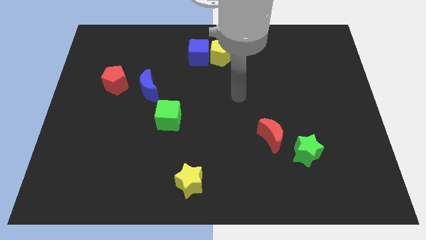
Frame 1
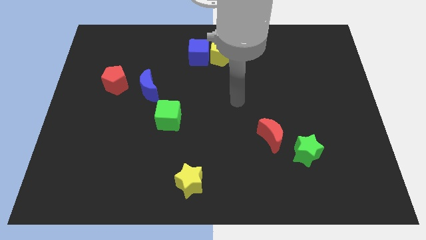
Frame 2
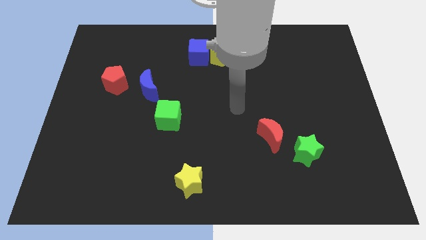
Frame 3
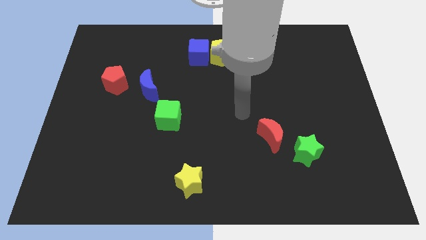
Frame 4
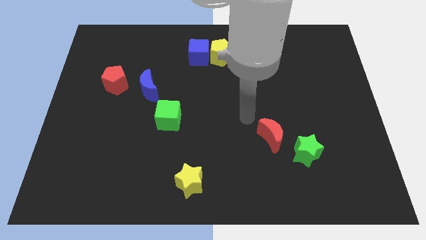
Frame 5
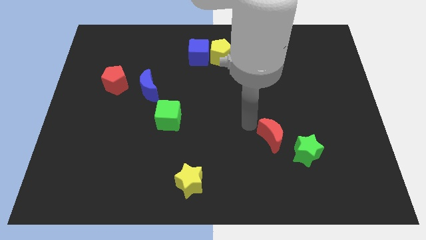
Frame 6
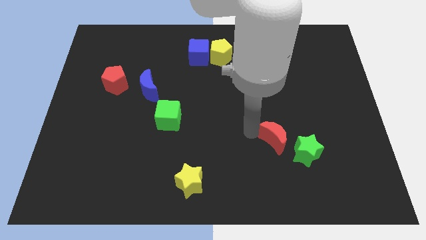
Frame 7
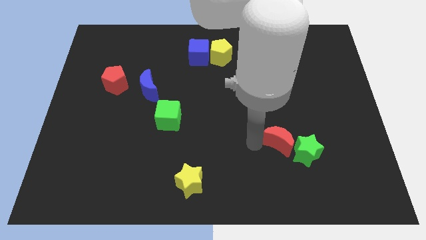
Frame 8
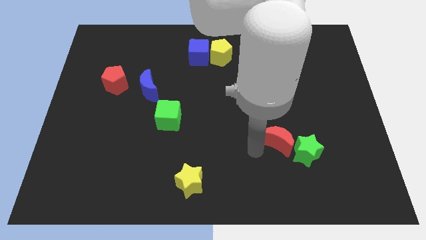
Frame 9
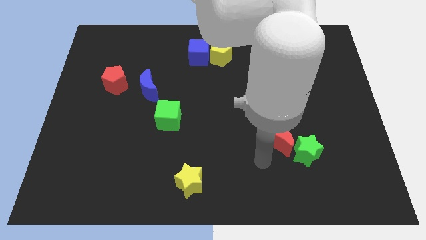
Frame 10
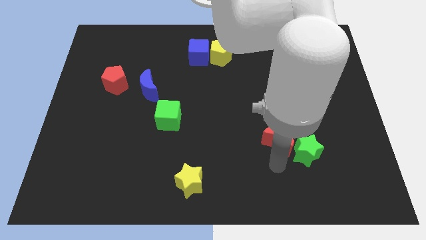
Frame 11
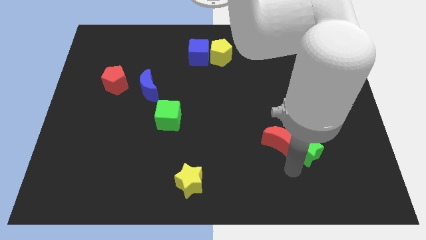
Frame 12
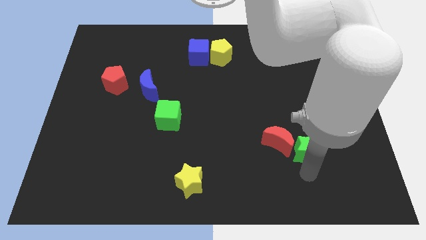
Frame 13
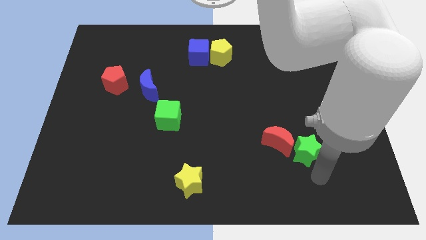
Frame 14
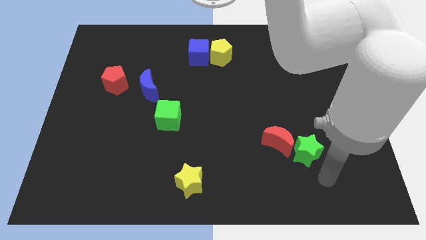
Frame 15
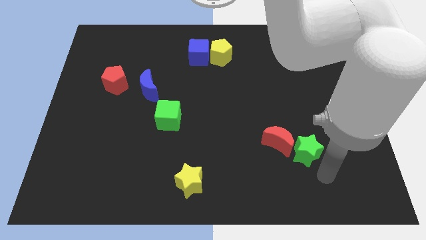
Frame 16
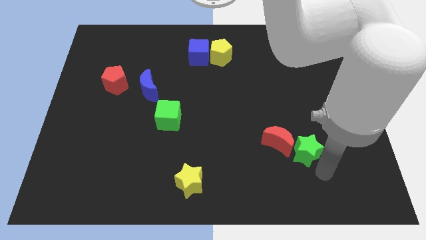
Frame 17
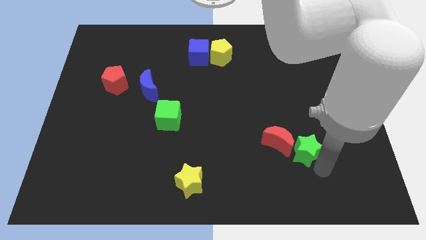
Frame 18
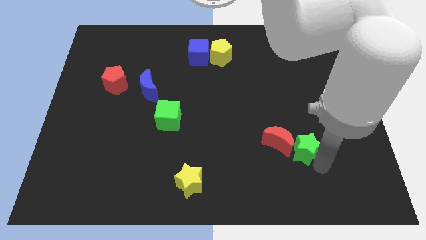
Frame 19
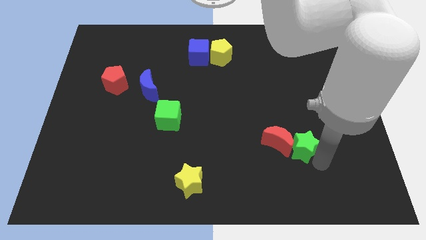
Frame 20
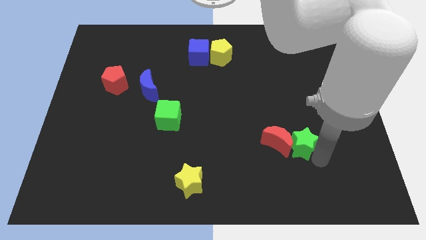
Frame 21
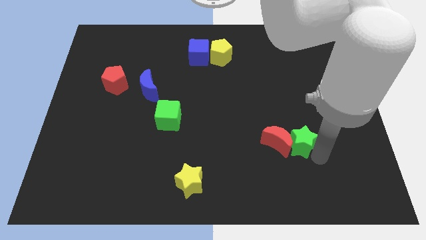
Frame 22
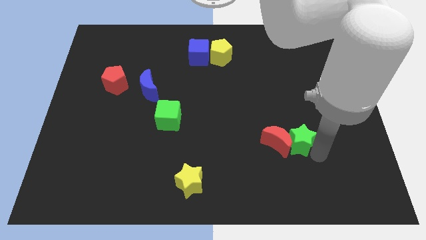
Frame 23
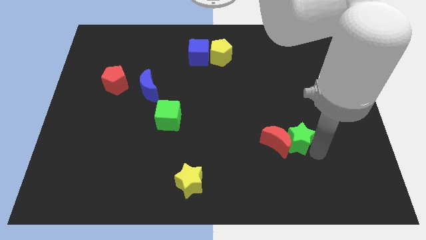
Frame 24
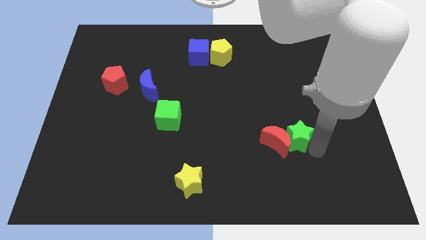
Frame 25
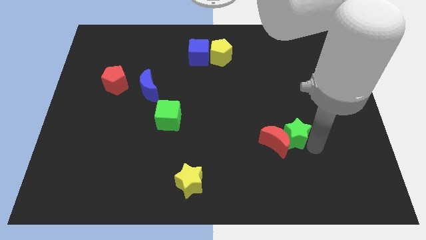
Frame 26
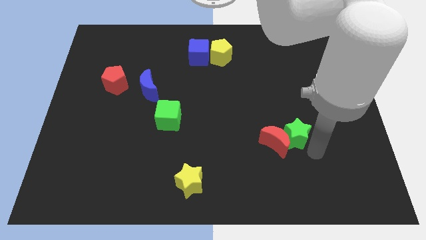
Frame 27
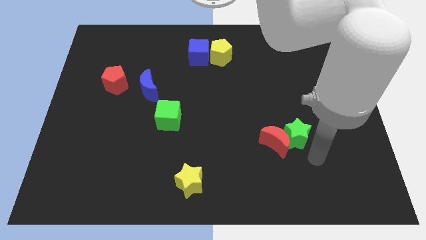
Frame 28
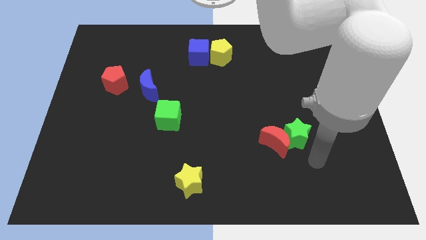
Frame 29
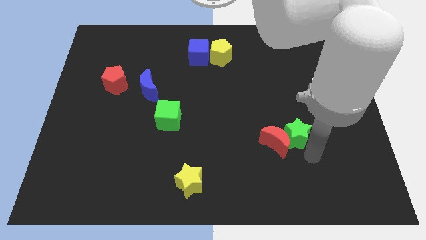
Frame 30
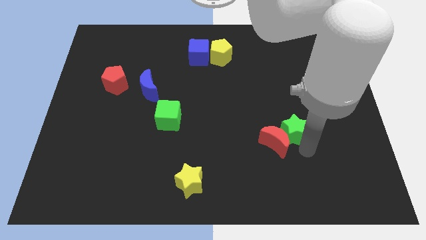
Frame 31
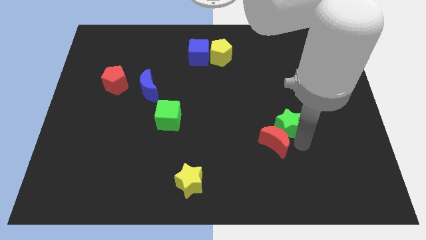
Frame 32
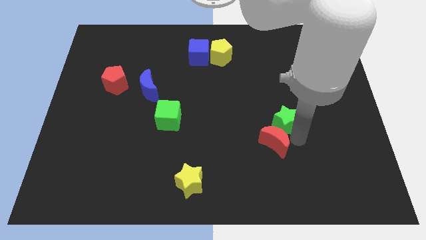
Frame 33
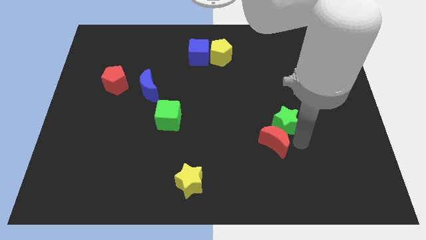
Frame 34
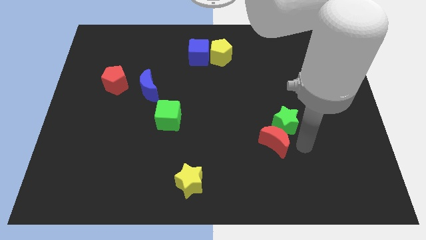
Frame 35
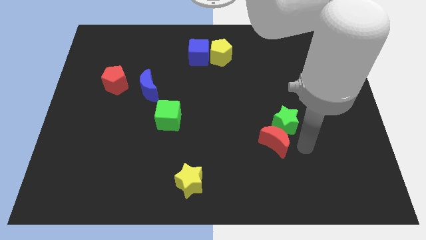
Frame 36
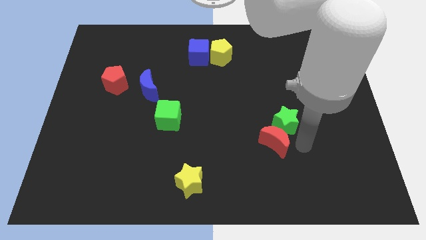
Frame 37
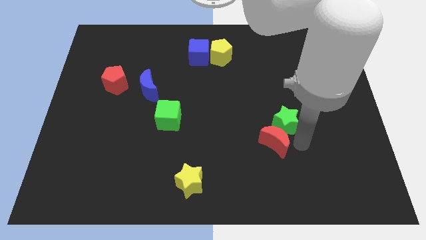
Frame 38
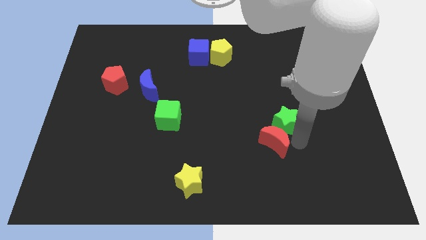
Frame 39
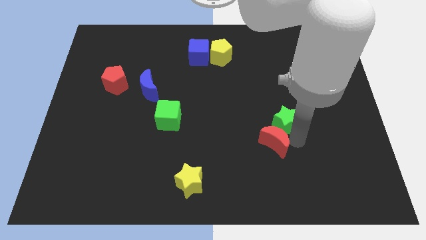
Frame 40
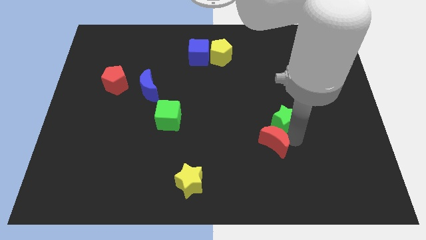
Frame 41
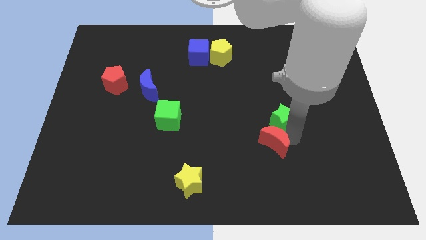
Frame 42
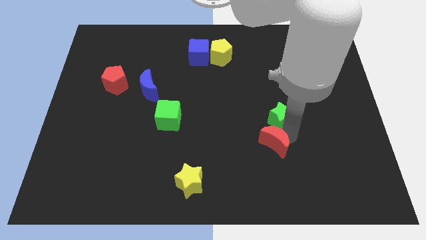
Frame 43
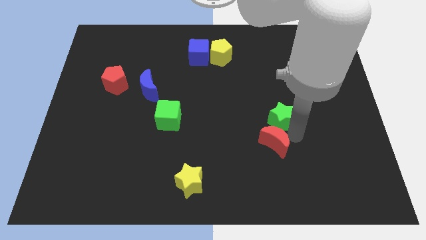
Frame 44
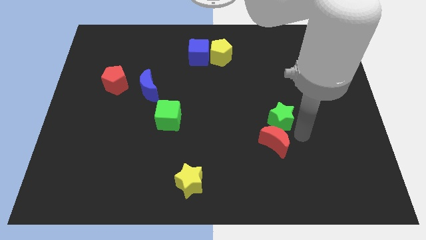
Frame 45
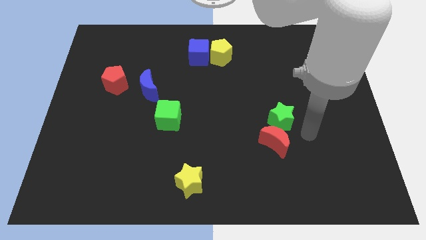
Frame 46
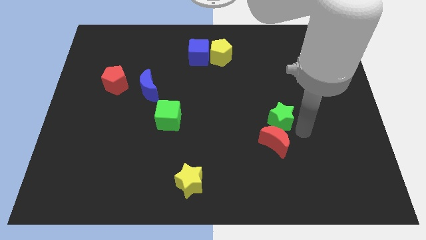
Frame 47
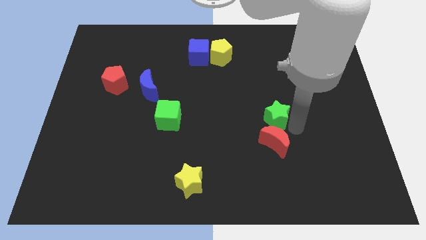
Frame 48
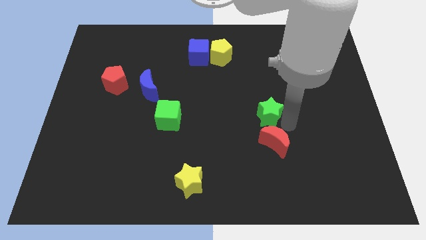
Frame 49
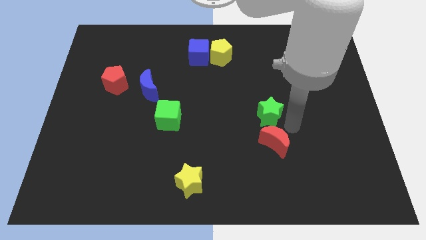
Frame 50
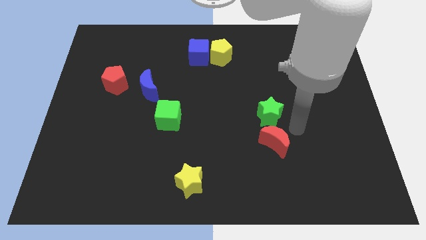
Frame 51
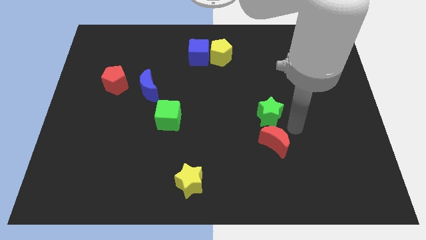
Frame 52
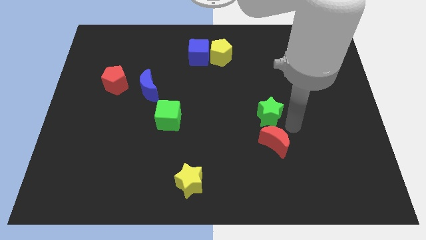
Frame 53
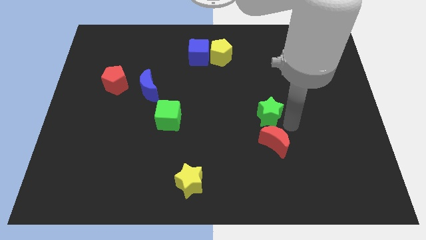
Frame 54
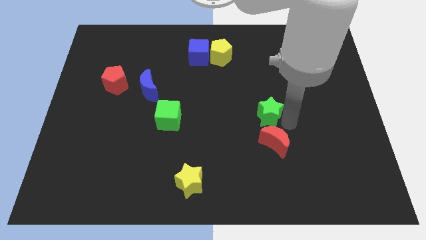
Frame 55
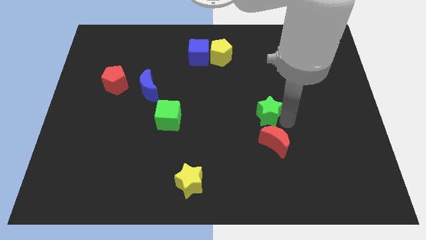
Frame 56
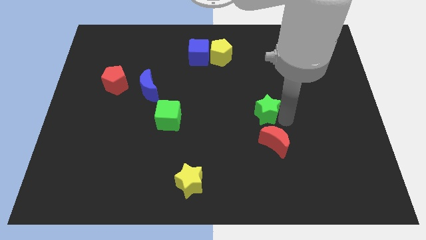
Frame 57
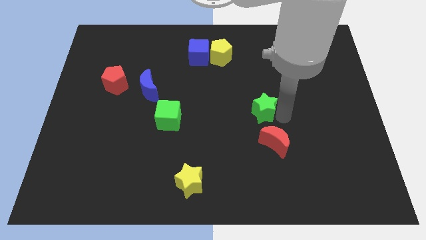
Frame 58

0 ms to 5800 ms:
slide the green star to the center of the board

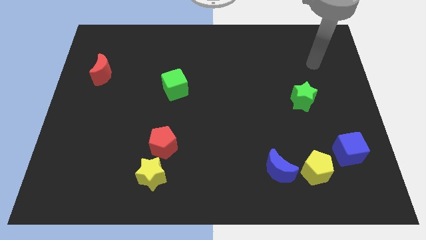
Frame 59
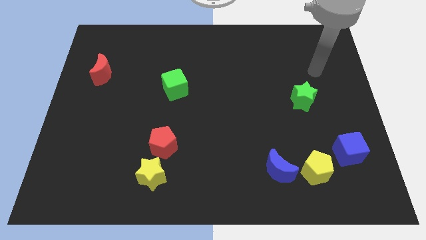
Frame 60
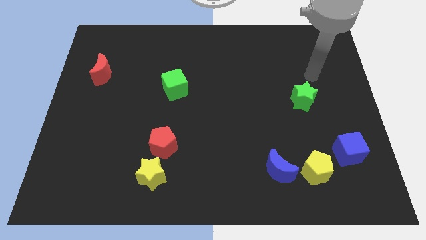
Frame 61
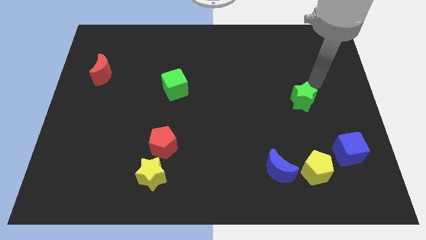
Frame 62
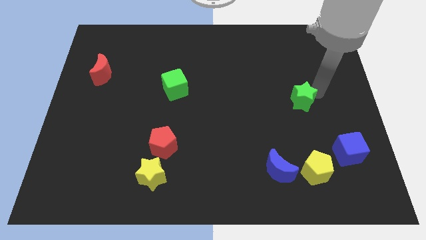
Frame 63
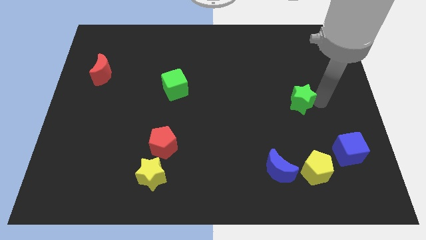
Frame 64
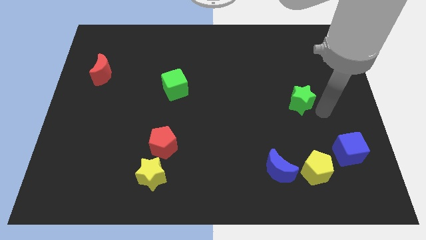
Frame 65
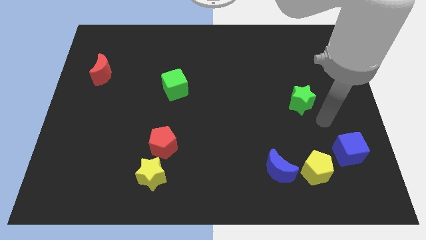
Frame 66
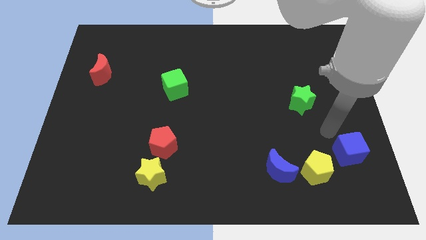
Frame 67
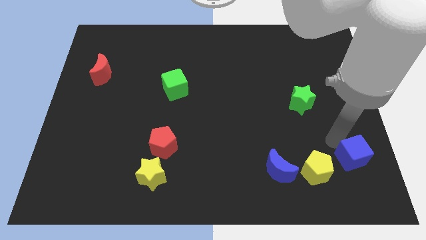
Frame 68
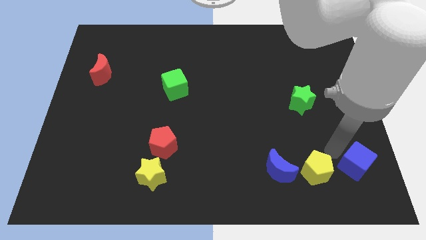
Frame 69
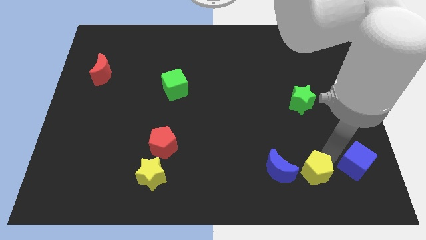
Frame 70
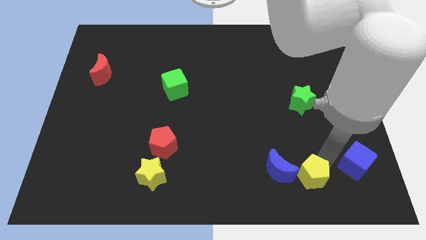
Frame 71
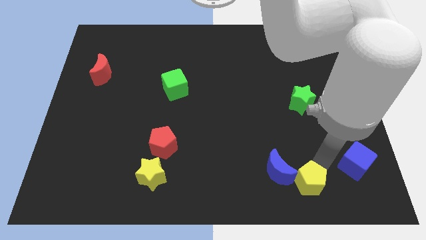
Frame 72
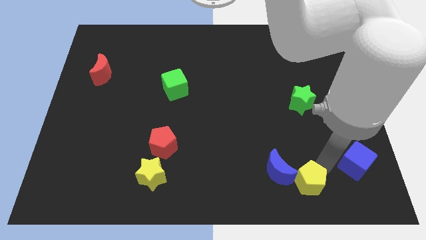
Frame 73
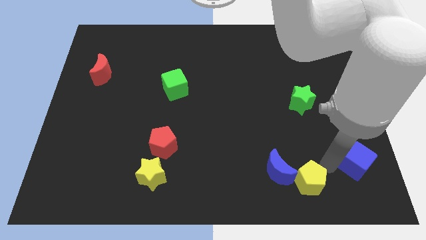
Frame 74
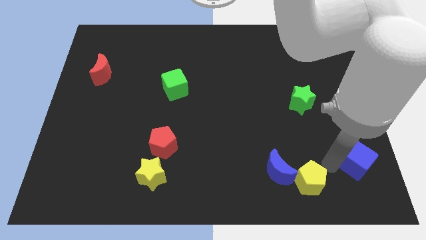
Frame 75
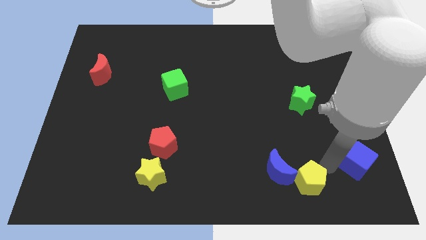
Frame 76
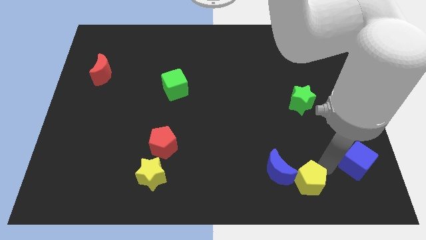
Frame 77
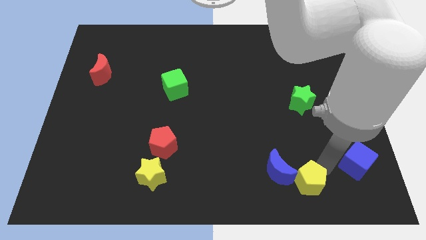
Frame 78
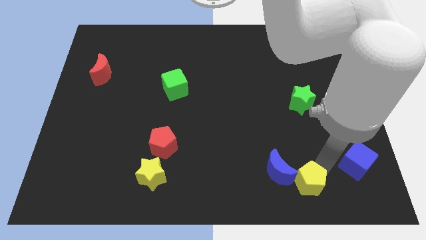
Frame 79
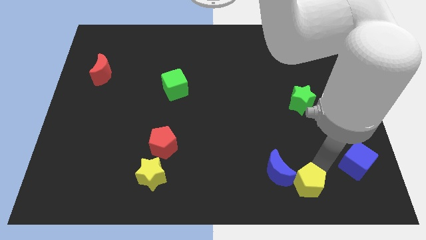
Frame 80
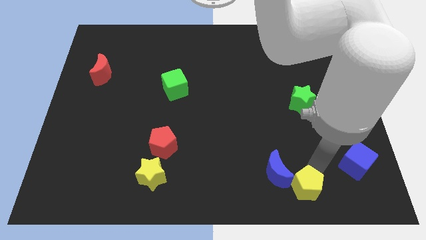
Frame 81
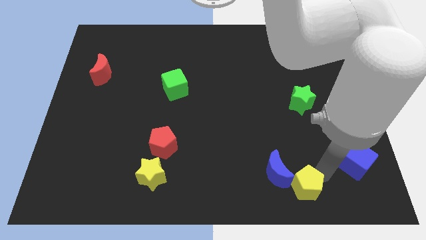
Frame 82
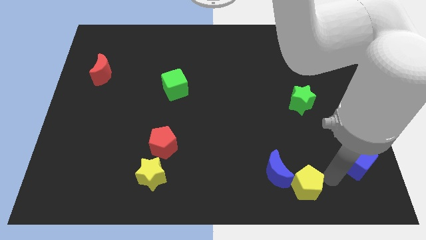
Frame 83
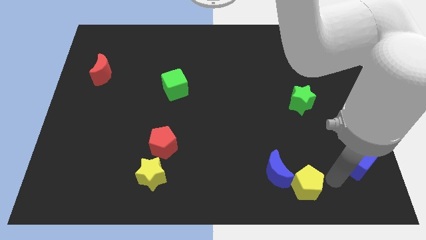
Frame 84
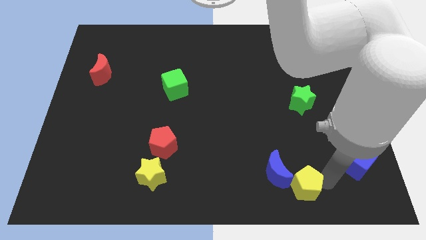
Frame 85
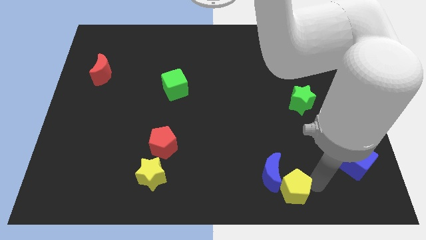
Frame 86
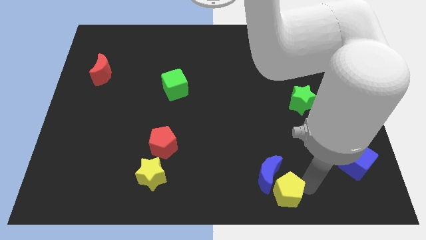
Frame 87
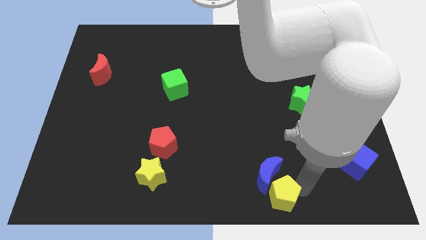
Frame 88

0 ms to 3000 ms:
slide the yellow pentagon to the bottom
